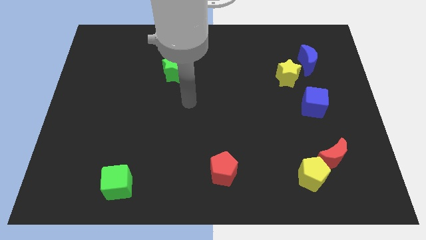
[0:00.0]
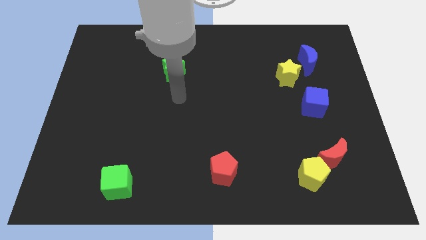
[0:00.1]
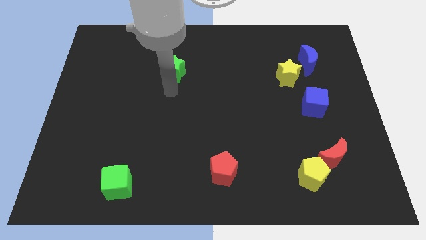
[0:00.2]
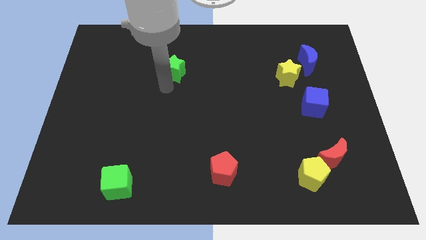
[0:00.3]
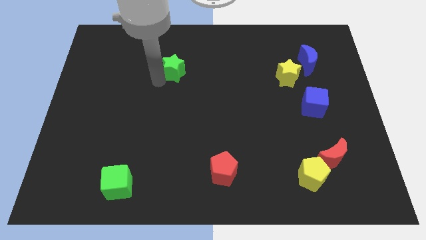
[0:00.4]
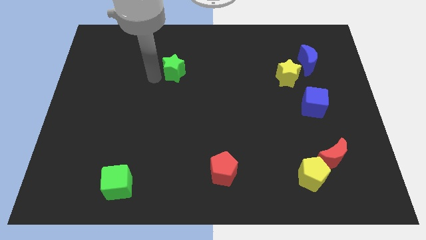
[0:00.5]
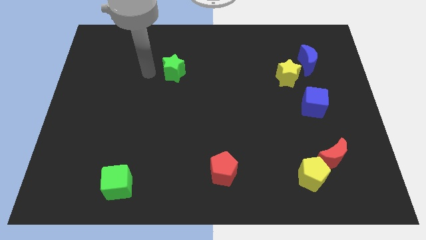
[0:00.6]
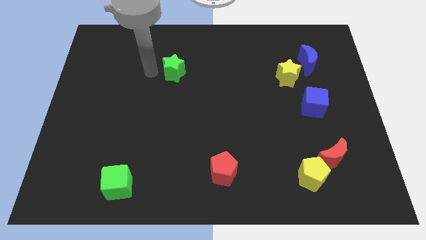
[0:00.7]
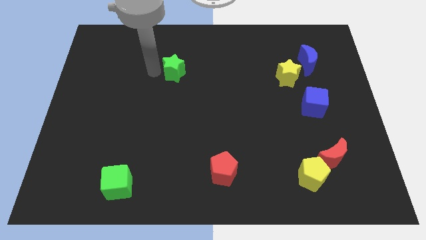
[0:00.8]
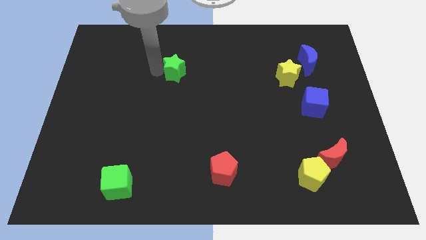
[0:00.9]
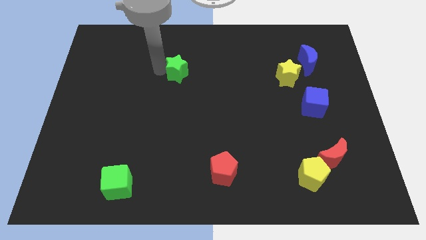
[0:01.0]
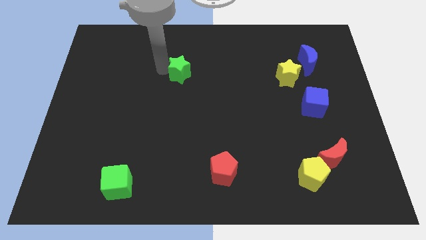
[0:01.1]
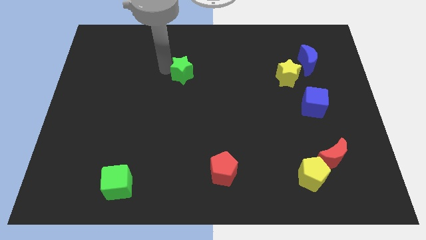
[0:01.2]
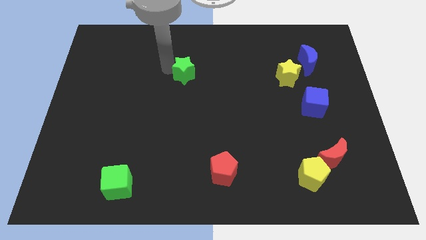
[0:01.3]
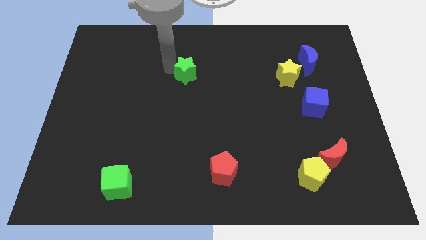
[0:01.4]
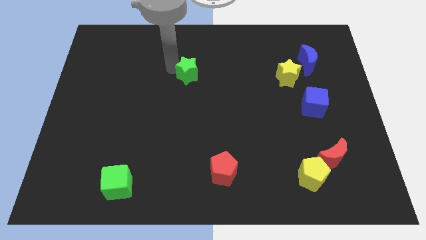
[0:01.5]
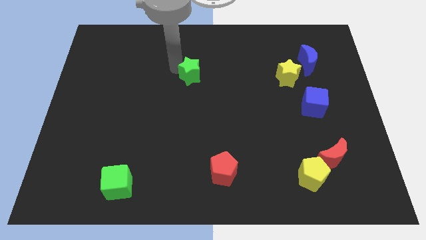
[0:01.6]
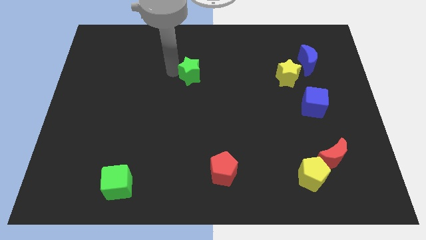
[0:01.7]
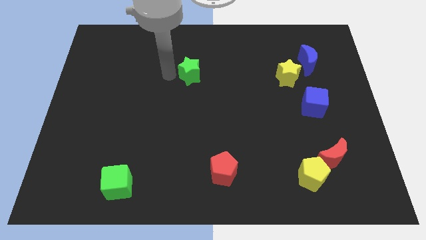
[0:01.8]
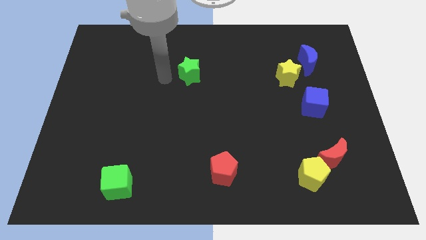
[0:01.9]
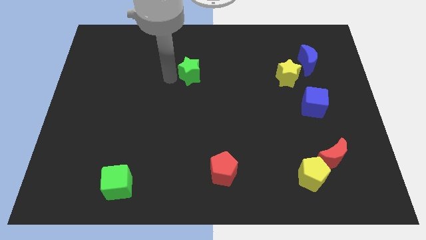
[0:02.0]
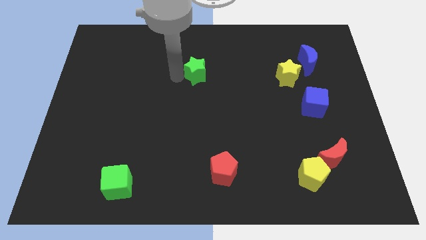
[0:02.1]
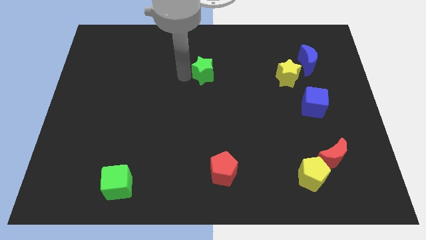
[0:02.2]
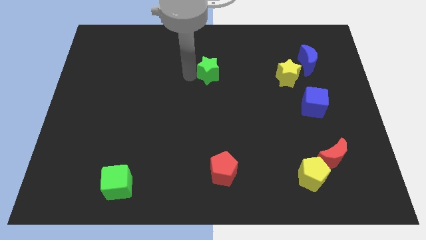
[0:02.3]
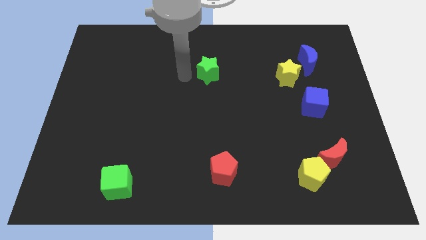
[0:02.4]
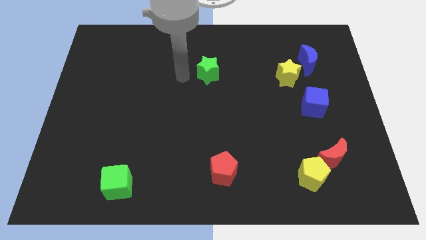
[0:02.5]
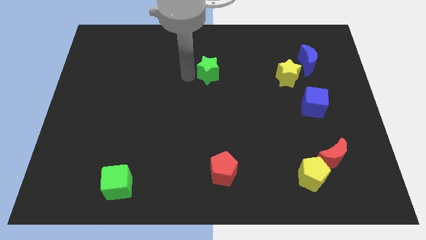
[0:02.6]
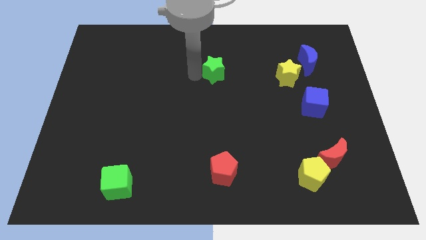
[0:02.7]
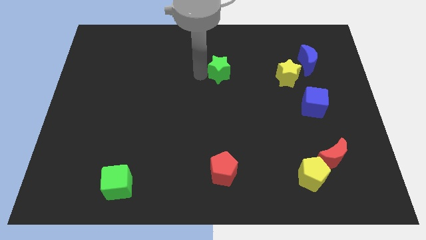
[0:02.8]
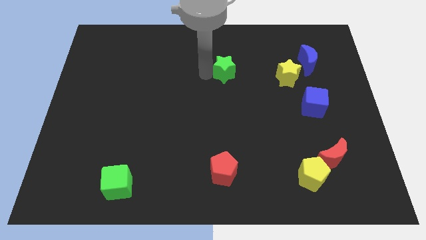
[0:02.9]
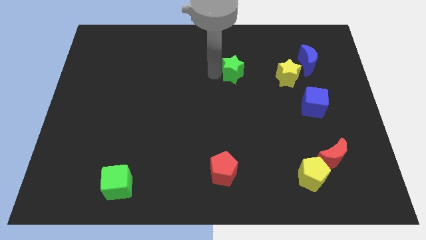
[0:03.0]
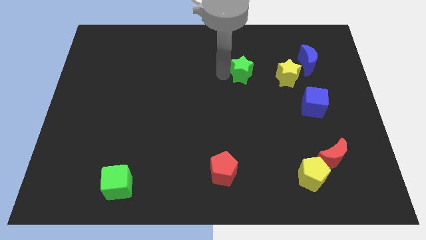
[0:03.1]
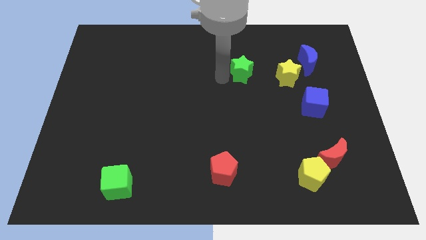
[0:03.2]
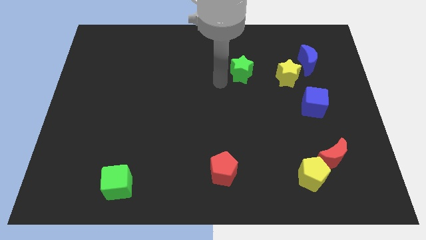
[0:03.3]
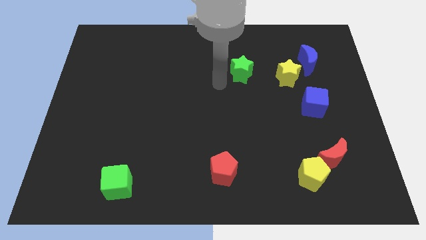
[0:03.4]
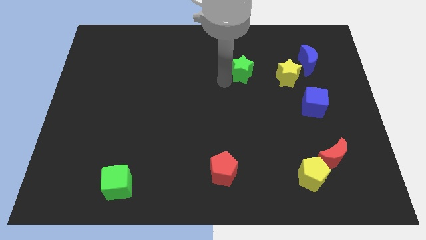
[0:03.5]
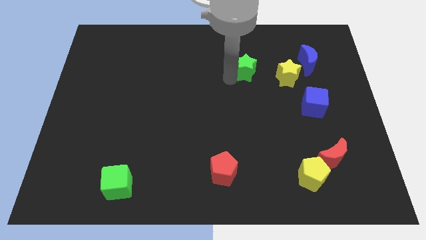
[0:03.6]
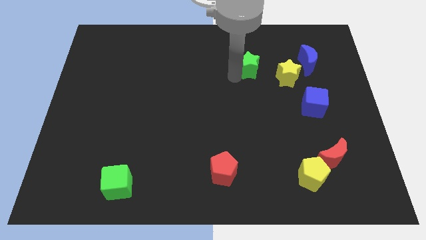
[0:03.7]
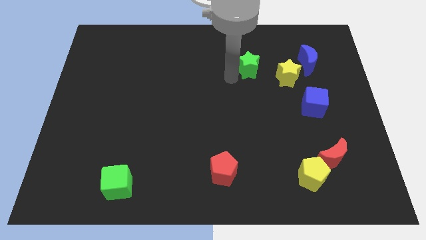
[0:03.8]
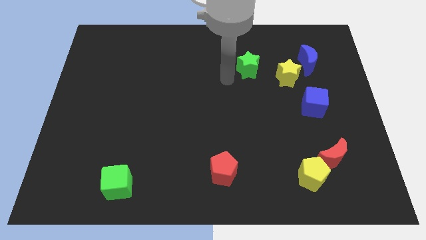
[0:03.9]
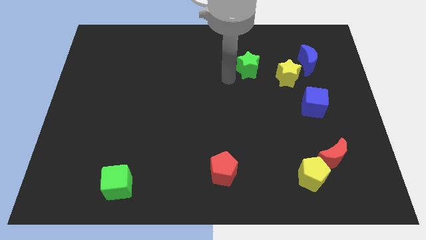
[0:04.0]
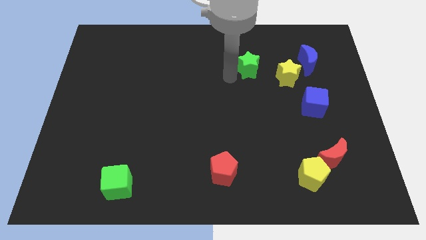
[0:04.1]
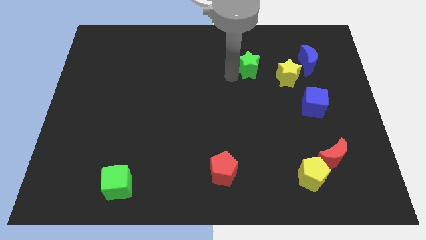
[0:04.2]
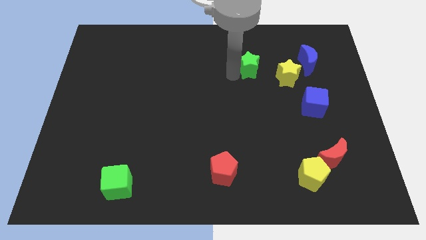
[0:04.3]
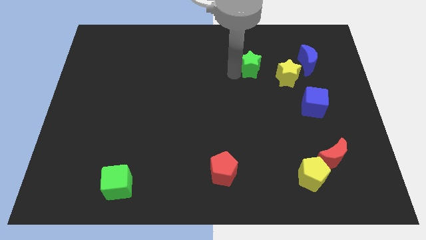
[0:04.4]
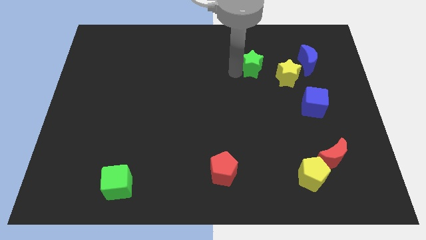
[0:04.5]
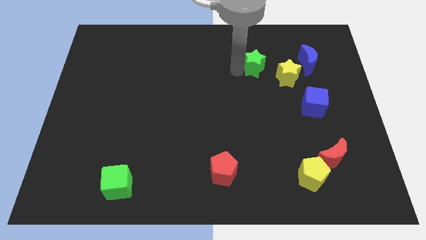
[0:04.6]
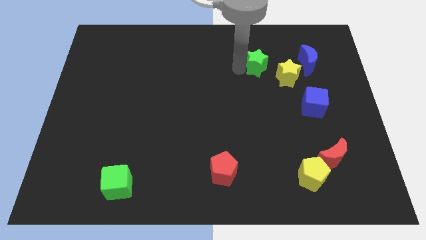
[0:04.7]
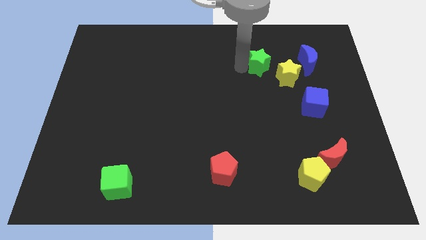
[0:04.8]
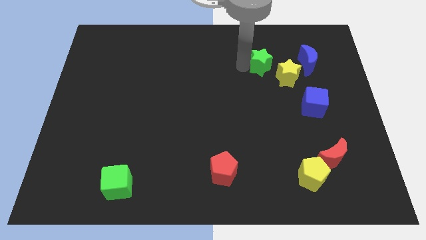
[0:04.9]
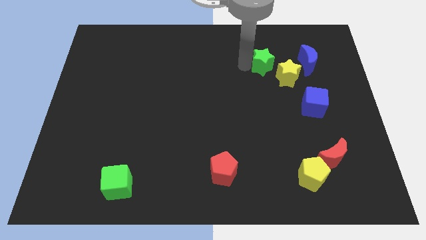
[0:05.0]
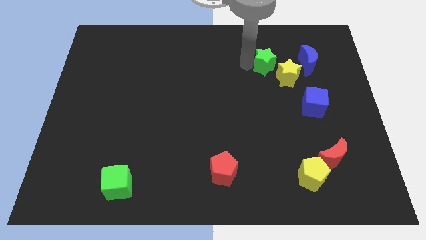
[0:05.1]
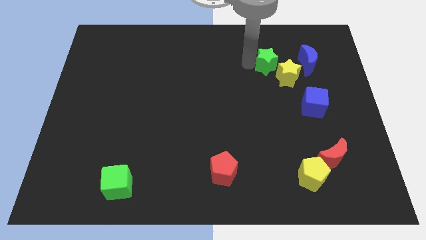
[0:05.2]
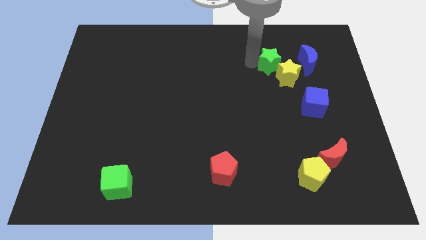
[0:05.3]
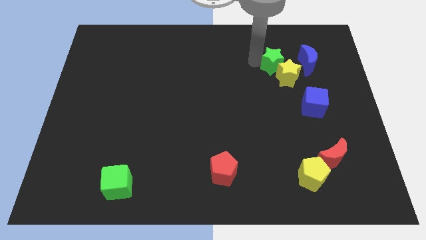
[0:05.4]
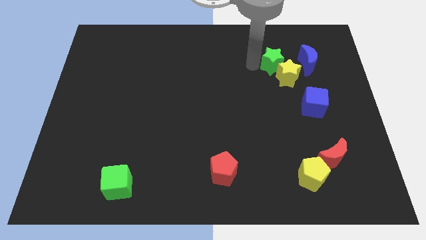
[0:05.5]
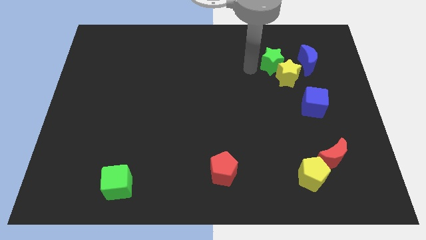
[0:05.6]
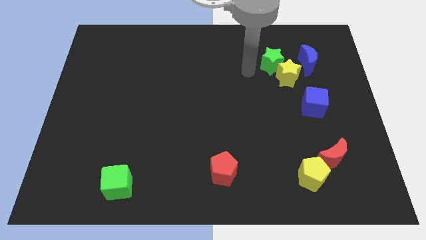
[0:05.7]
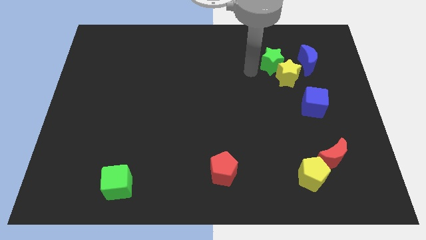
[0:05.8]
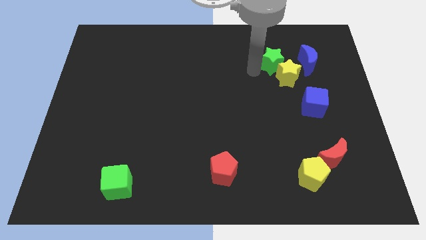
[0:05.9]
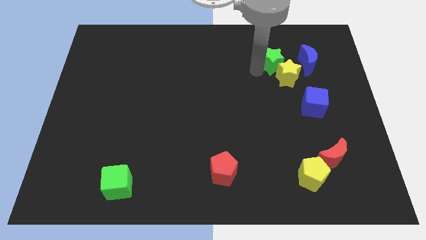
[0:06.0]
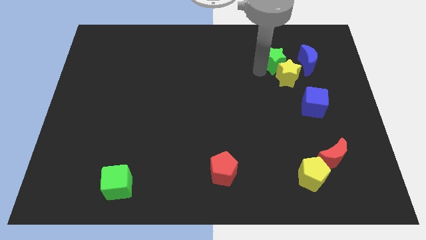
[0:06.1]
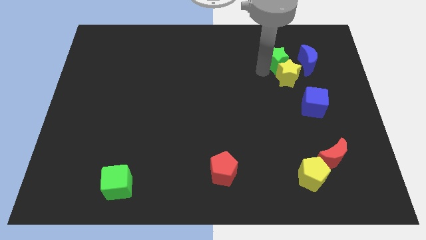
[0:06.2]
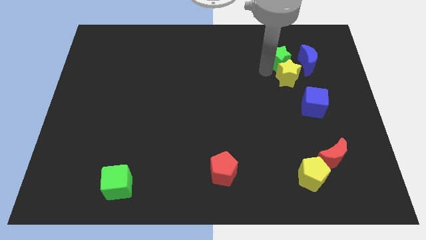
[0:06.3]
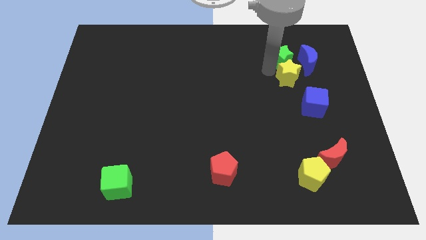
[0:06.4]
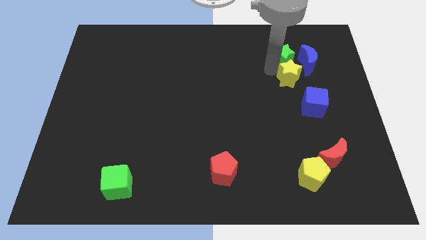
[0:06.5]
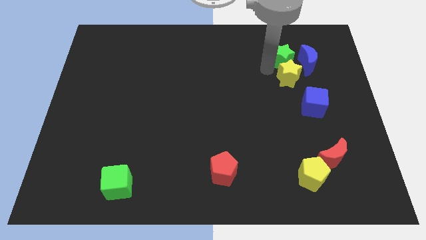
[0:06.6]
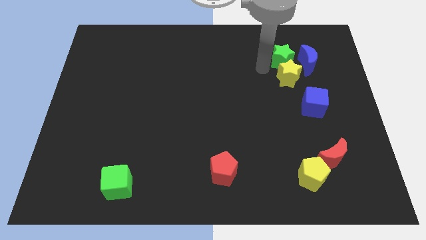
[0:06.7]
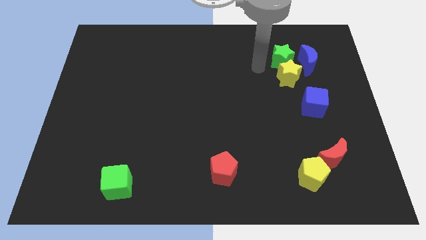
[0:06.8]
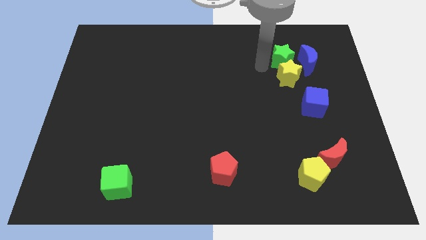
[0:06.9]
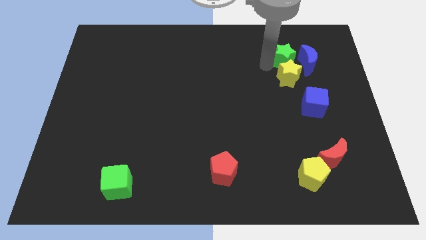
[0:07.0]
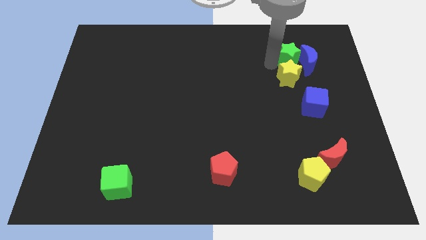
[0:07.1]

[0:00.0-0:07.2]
put the green star to the blue moon
